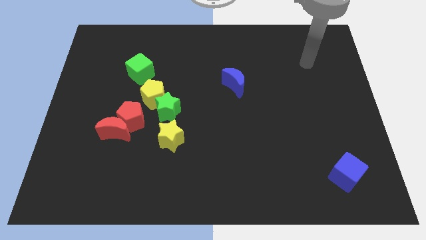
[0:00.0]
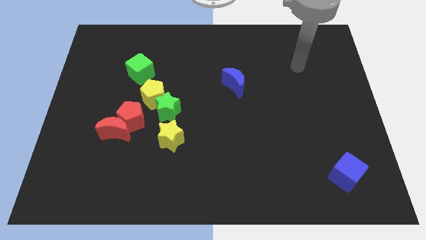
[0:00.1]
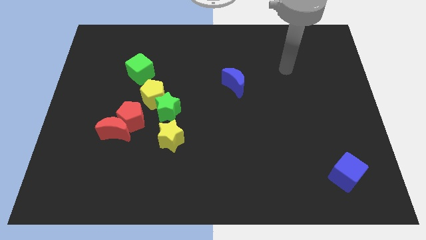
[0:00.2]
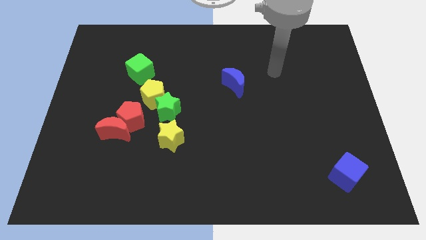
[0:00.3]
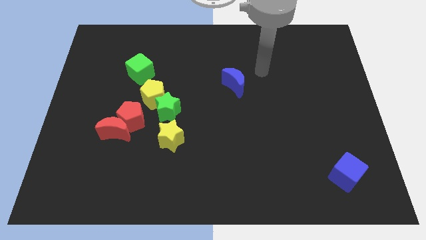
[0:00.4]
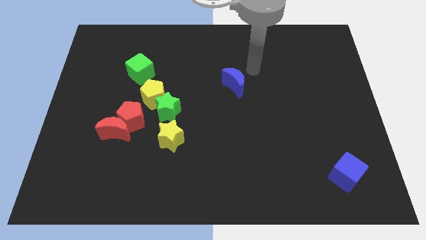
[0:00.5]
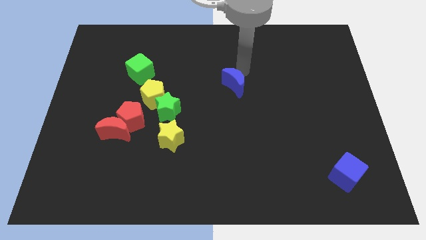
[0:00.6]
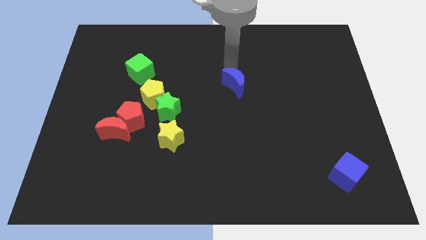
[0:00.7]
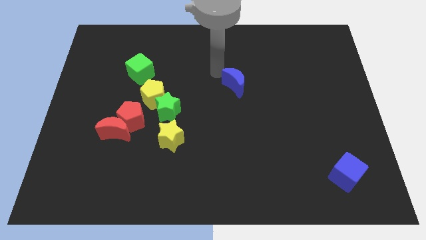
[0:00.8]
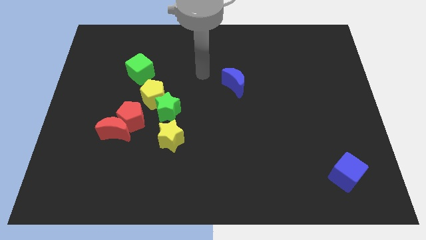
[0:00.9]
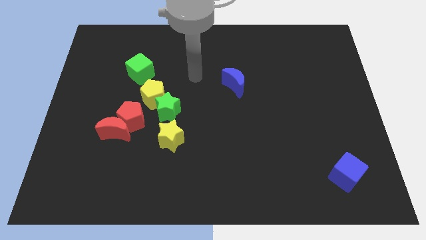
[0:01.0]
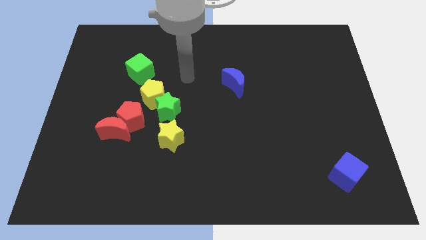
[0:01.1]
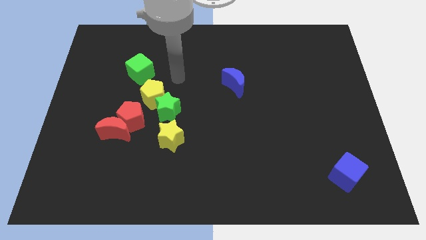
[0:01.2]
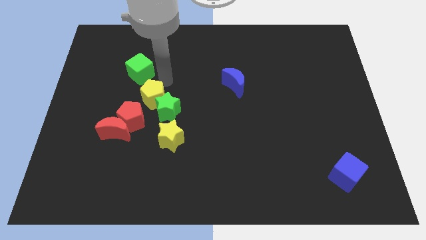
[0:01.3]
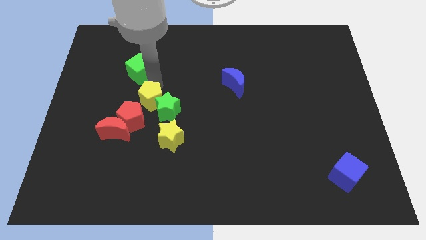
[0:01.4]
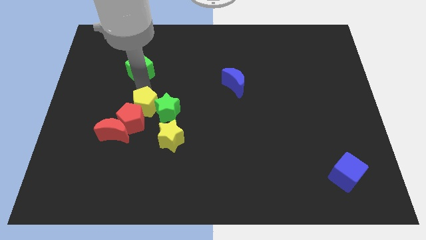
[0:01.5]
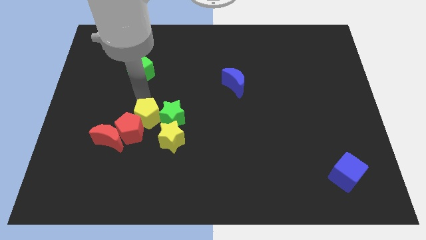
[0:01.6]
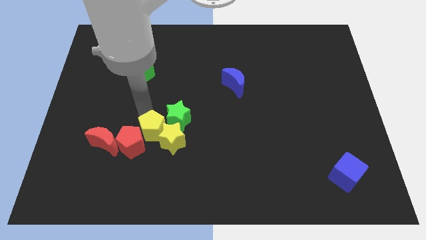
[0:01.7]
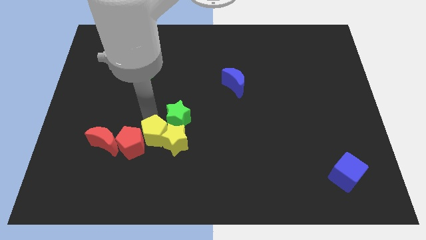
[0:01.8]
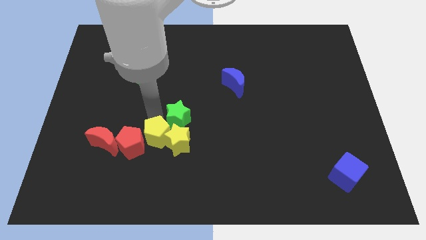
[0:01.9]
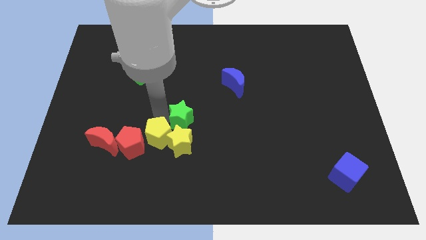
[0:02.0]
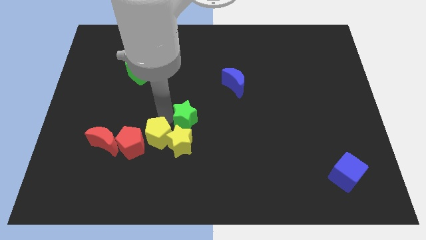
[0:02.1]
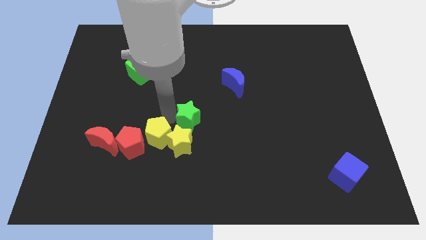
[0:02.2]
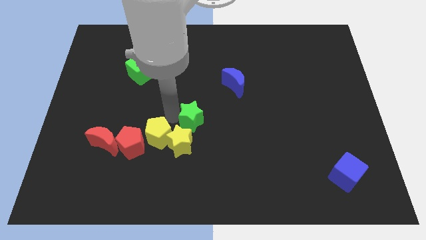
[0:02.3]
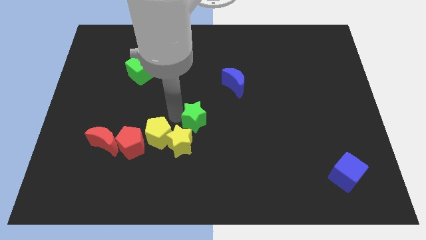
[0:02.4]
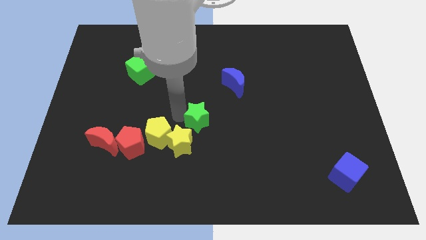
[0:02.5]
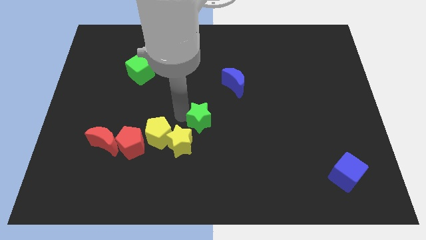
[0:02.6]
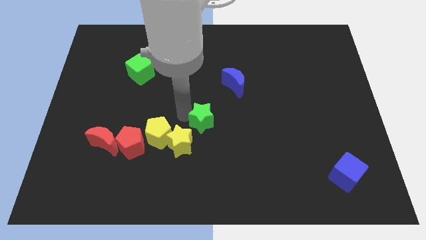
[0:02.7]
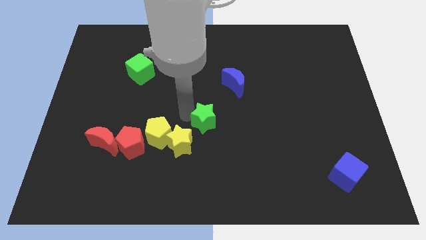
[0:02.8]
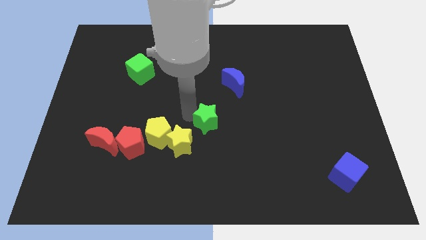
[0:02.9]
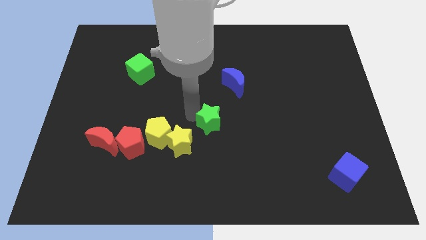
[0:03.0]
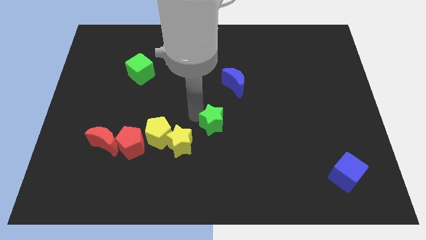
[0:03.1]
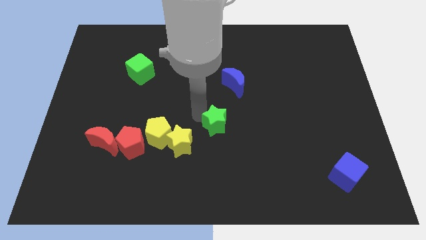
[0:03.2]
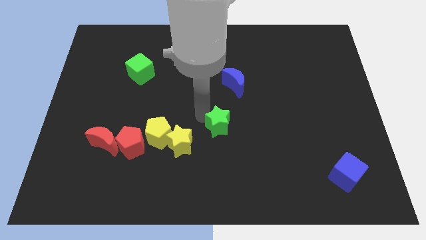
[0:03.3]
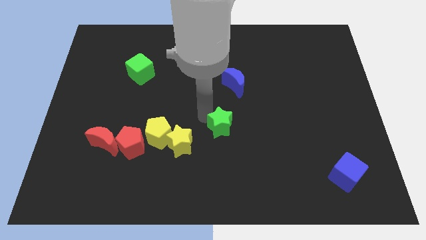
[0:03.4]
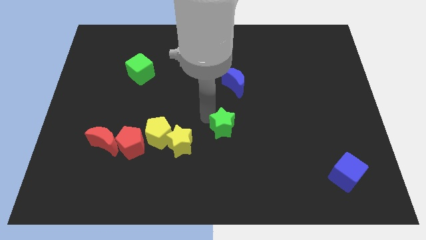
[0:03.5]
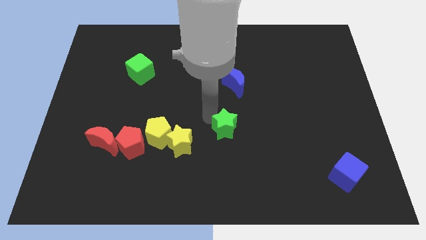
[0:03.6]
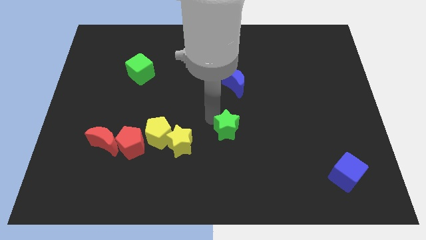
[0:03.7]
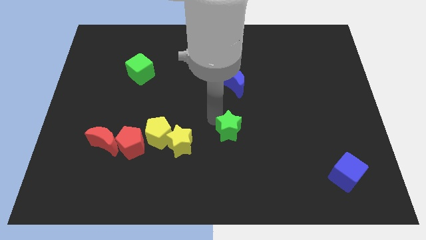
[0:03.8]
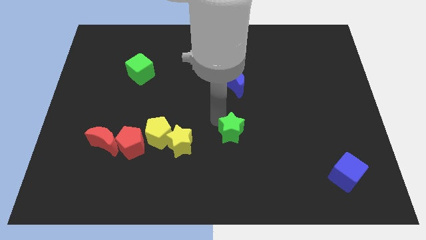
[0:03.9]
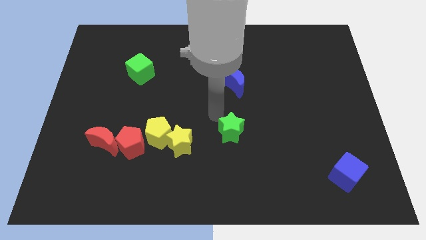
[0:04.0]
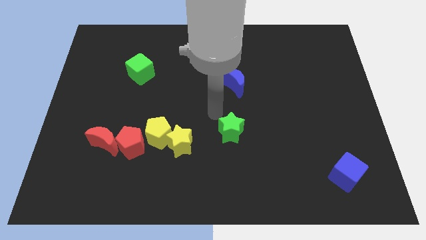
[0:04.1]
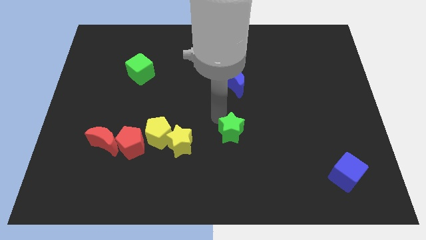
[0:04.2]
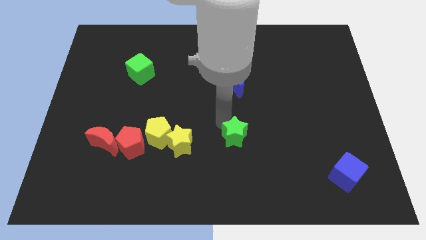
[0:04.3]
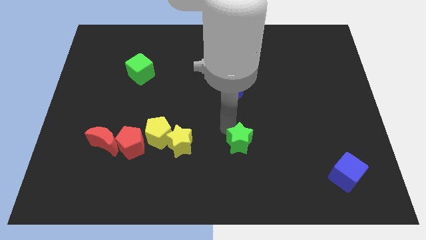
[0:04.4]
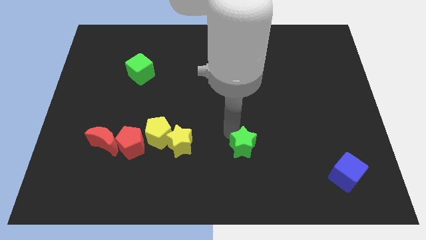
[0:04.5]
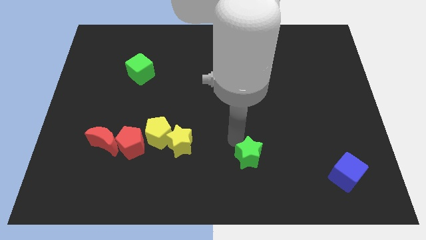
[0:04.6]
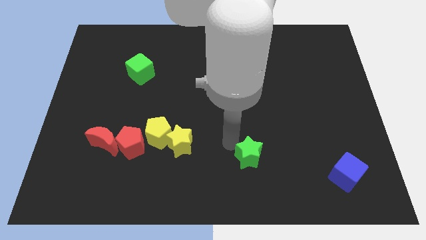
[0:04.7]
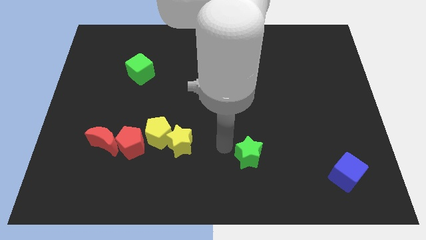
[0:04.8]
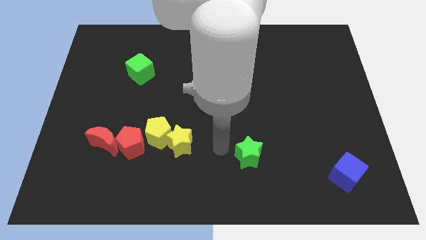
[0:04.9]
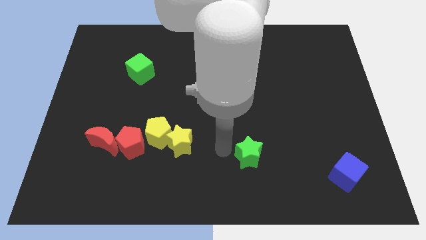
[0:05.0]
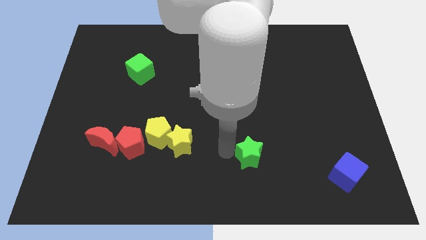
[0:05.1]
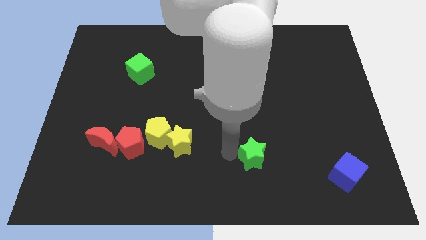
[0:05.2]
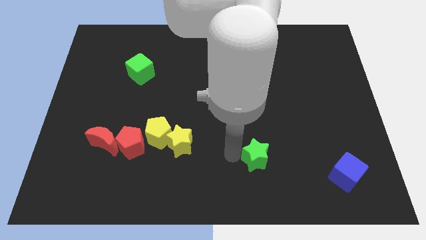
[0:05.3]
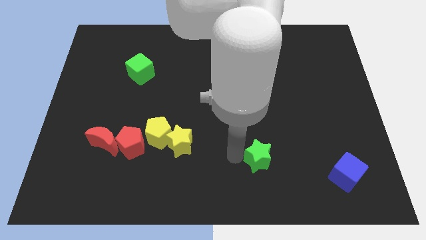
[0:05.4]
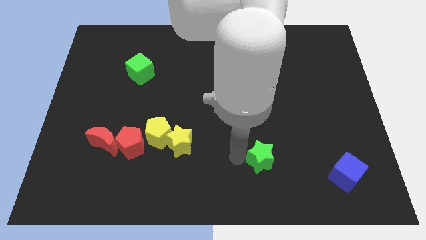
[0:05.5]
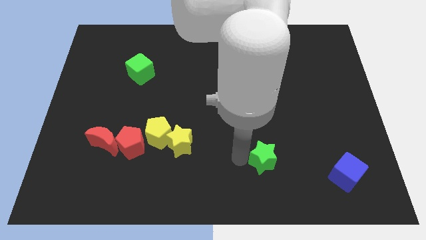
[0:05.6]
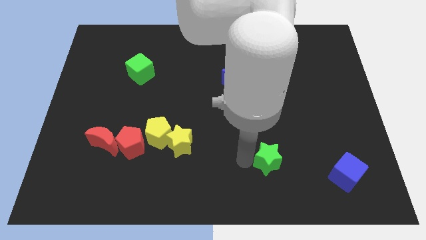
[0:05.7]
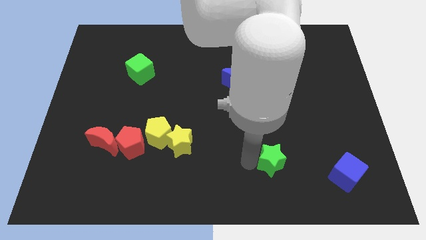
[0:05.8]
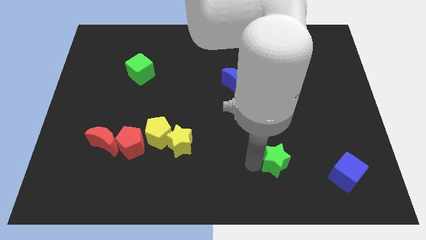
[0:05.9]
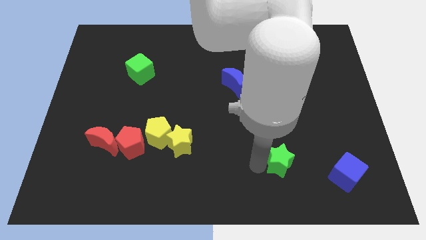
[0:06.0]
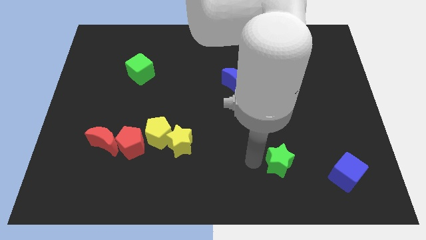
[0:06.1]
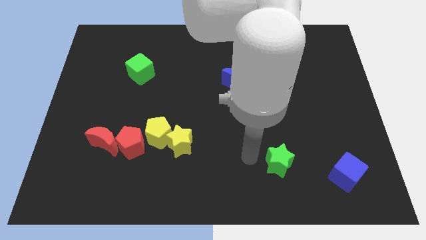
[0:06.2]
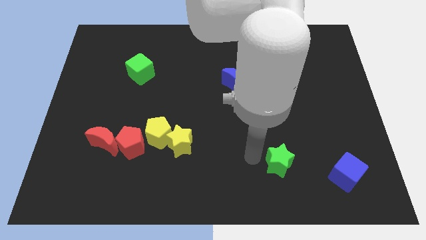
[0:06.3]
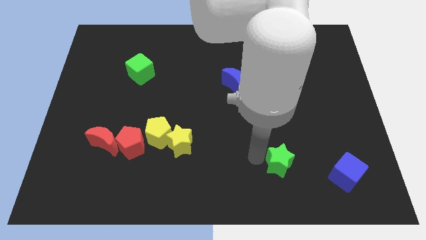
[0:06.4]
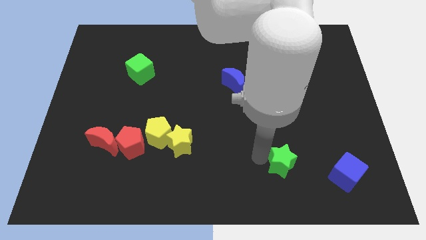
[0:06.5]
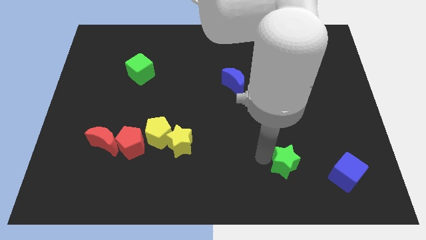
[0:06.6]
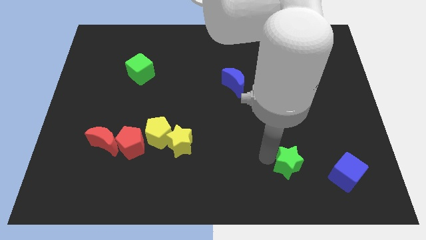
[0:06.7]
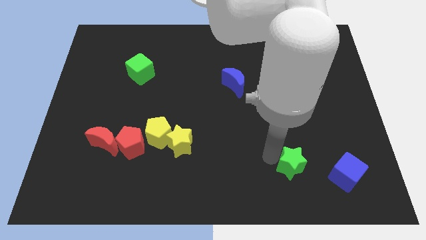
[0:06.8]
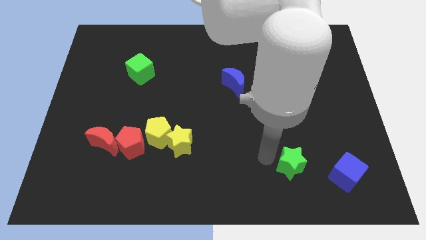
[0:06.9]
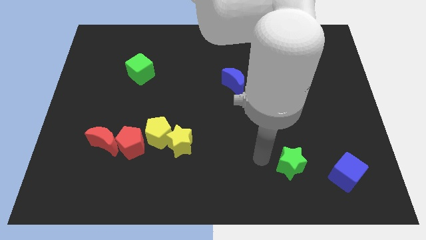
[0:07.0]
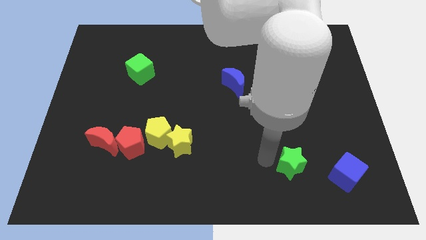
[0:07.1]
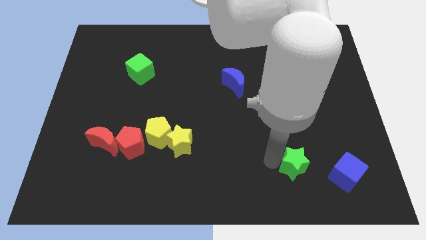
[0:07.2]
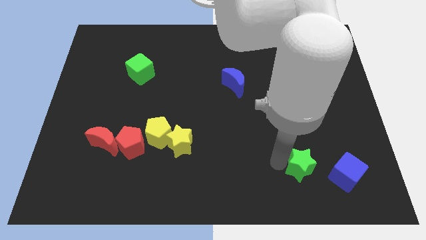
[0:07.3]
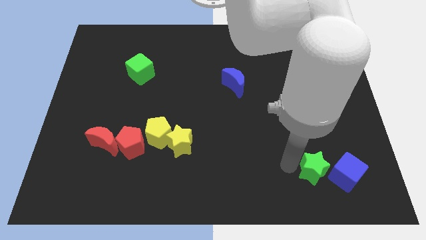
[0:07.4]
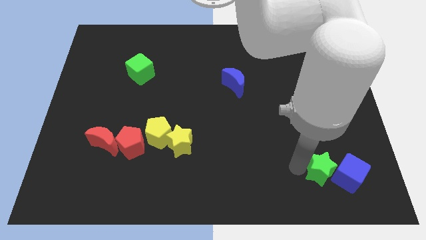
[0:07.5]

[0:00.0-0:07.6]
put the green star close to the blue cube
